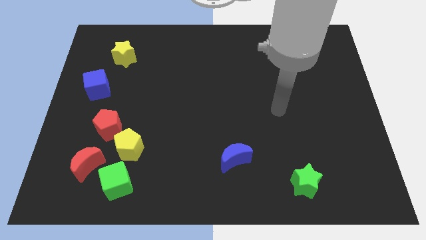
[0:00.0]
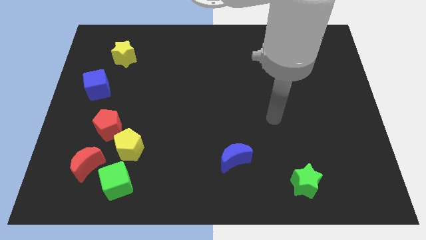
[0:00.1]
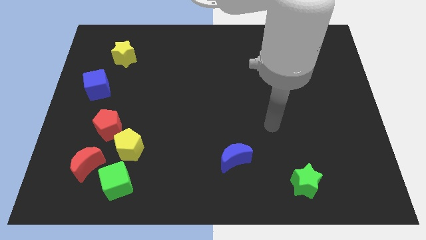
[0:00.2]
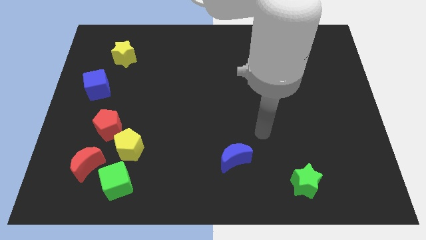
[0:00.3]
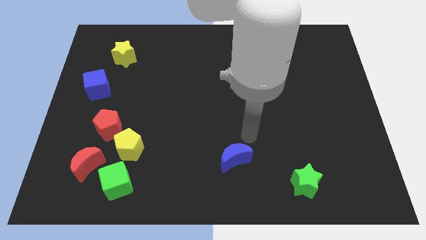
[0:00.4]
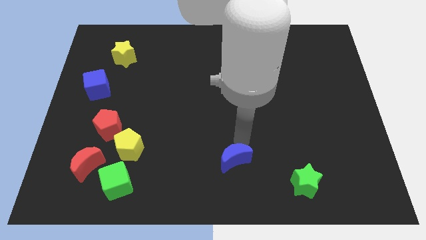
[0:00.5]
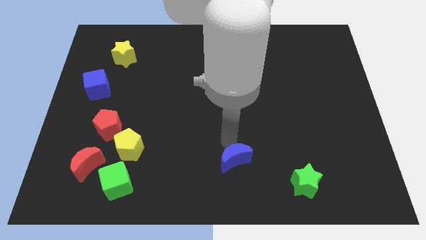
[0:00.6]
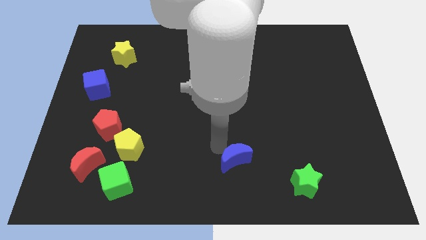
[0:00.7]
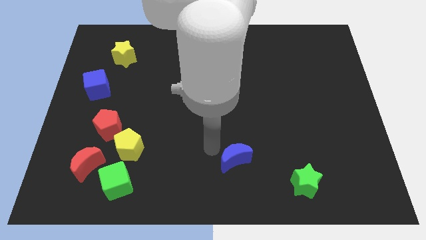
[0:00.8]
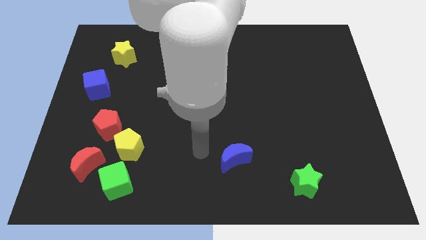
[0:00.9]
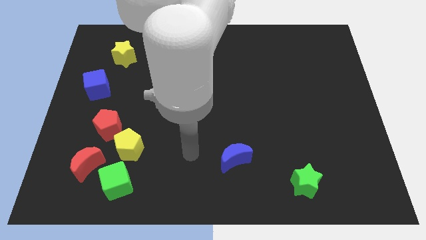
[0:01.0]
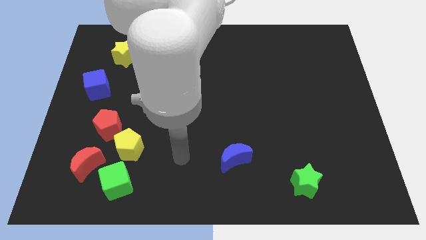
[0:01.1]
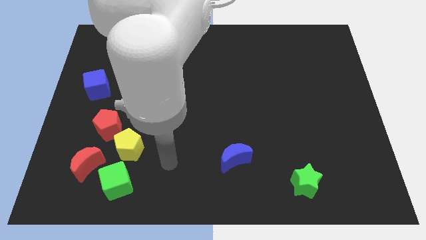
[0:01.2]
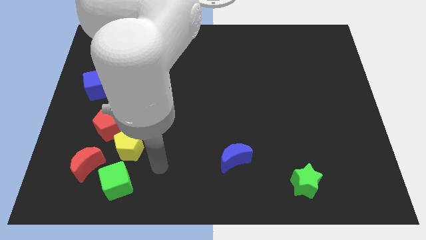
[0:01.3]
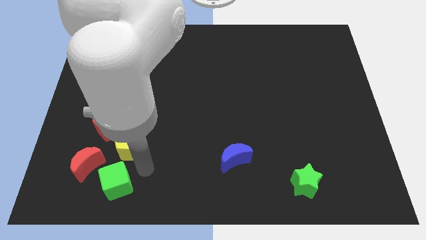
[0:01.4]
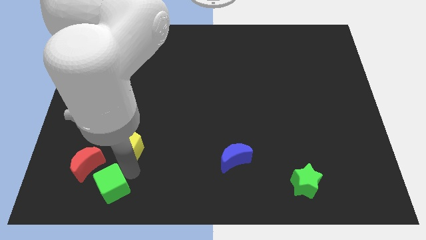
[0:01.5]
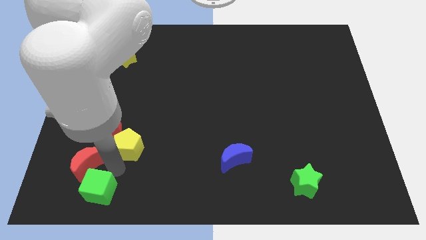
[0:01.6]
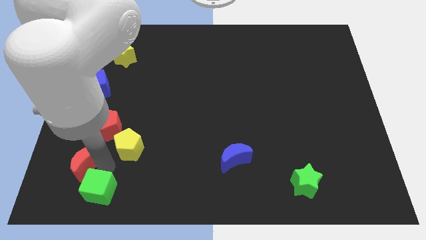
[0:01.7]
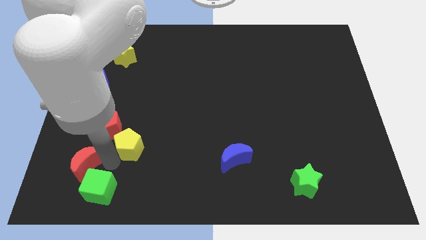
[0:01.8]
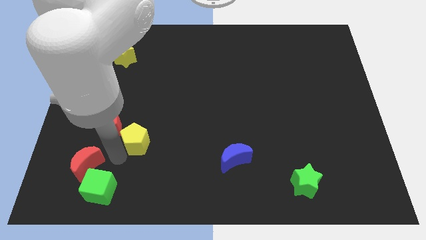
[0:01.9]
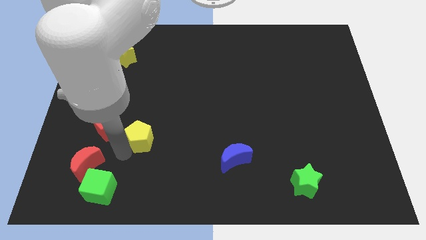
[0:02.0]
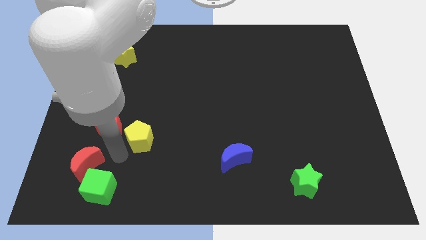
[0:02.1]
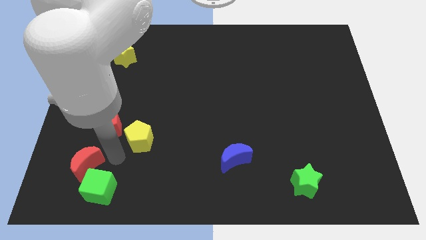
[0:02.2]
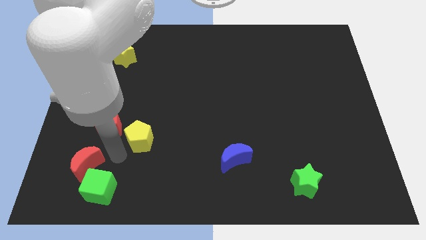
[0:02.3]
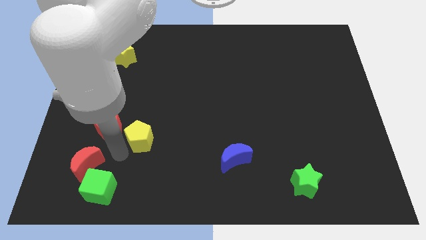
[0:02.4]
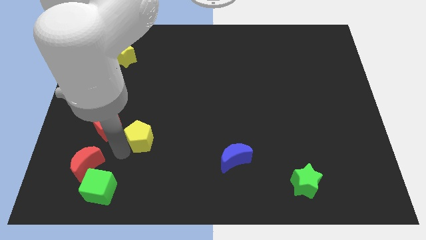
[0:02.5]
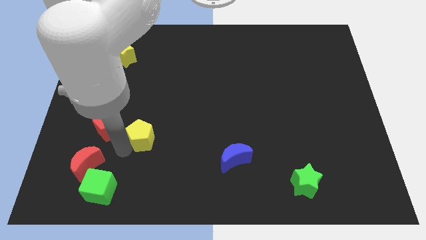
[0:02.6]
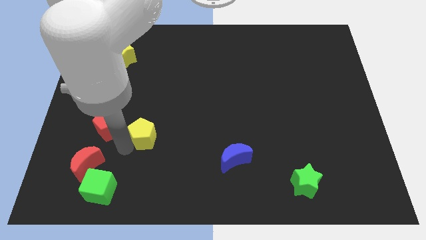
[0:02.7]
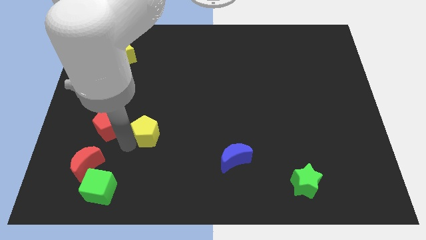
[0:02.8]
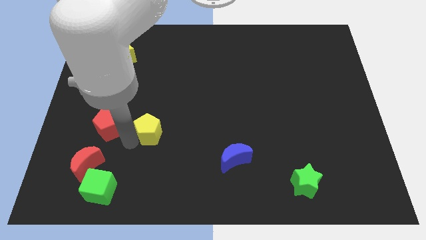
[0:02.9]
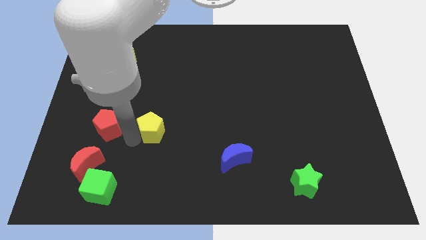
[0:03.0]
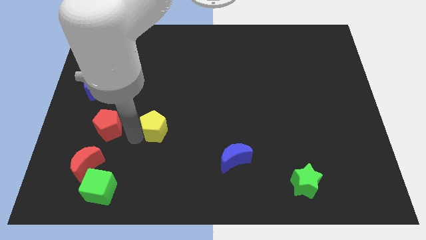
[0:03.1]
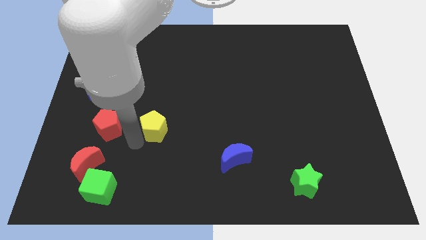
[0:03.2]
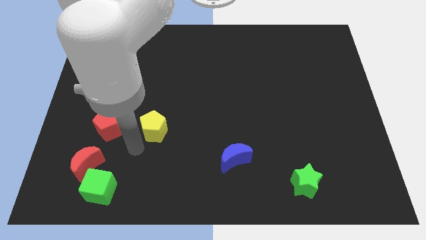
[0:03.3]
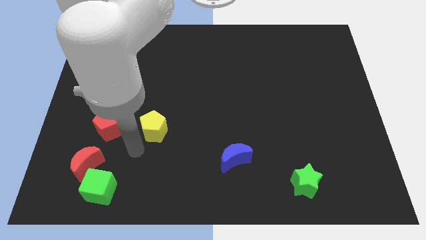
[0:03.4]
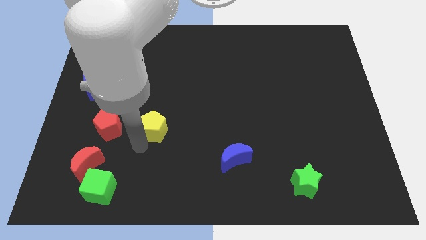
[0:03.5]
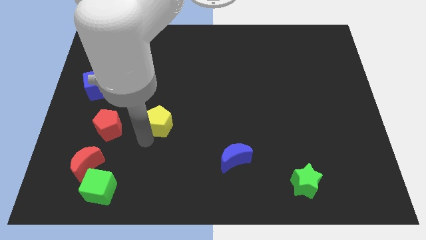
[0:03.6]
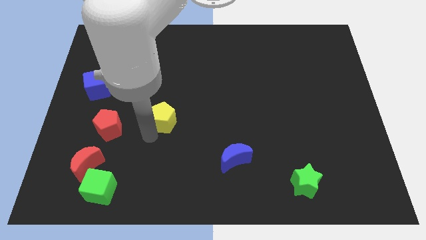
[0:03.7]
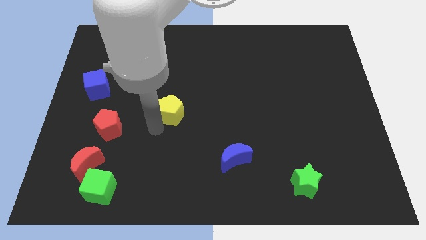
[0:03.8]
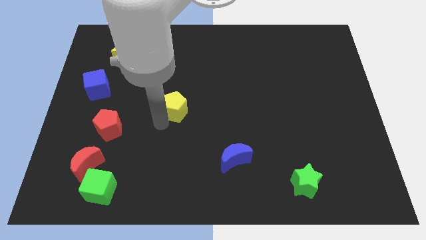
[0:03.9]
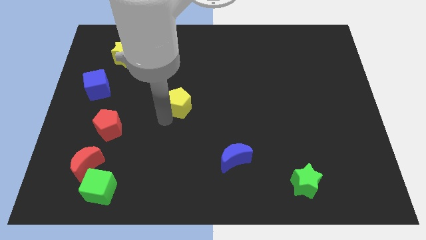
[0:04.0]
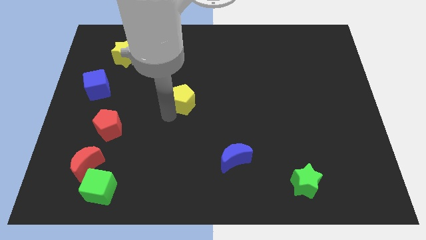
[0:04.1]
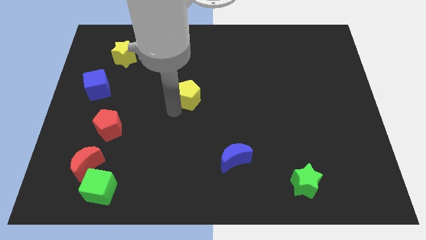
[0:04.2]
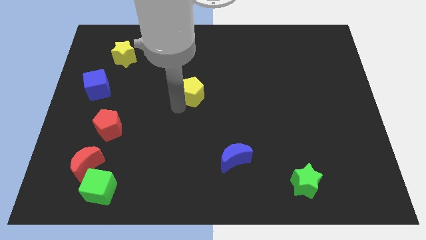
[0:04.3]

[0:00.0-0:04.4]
push the yellow pentagon up and then to the right

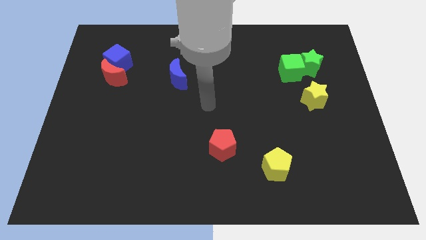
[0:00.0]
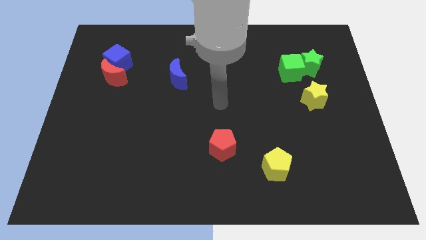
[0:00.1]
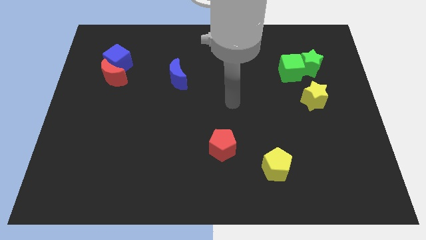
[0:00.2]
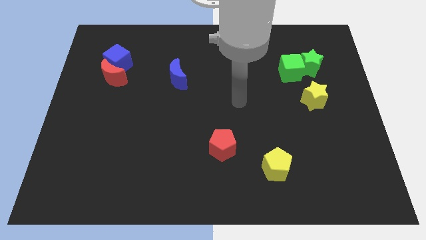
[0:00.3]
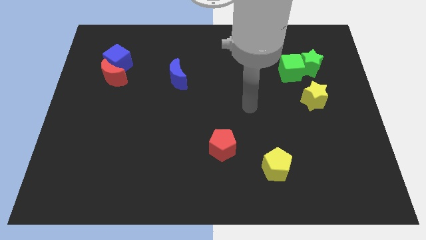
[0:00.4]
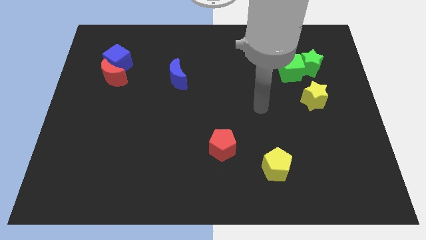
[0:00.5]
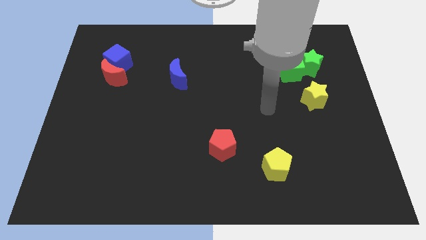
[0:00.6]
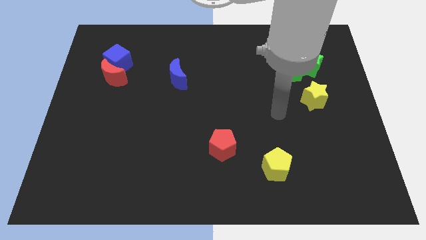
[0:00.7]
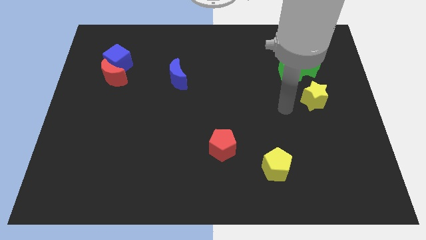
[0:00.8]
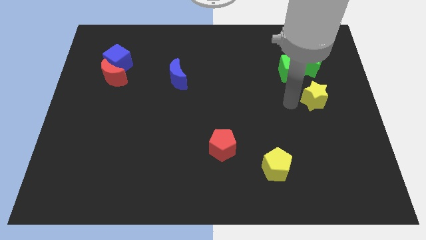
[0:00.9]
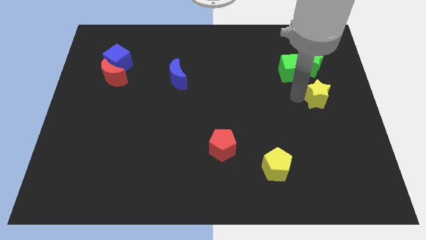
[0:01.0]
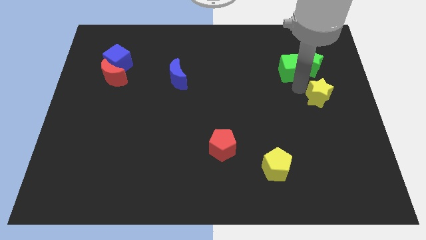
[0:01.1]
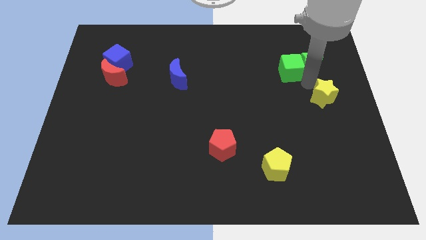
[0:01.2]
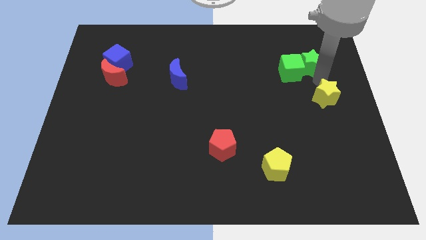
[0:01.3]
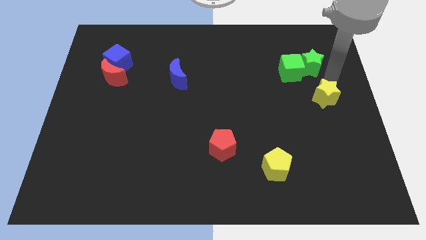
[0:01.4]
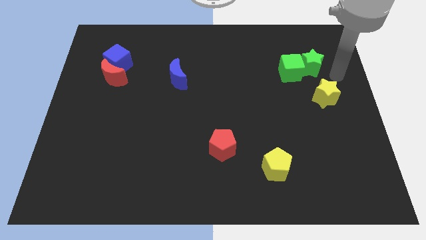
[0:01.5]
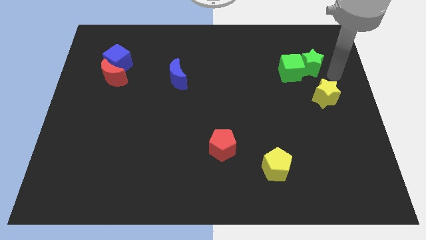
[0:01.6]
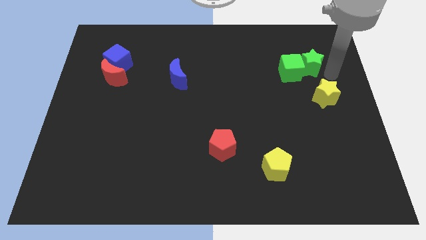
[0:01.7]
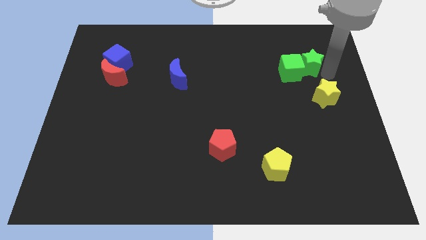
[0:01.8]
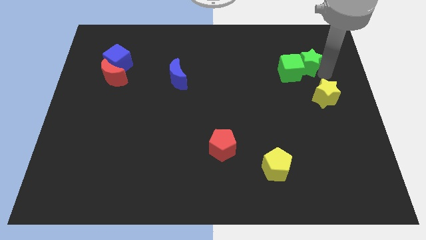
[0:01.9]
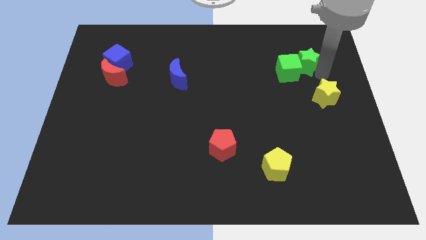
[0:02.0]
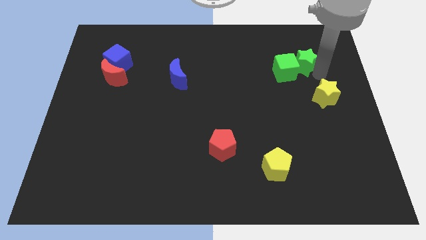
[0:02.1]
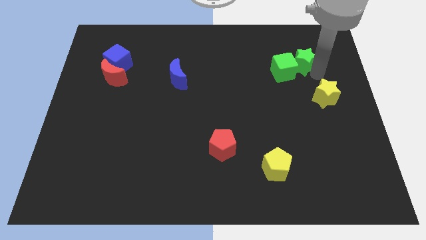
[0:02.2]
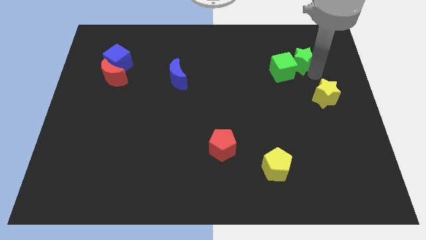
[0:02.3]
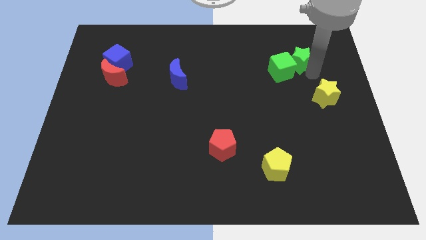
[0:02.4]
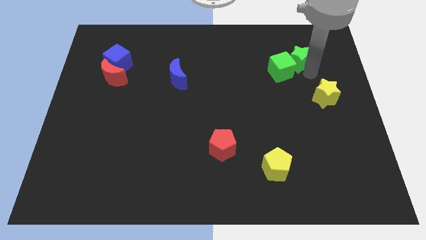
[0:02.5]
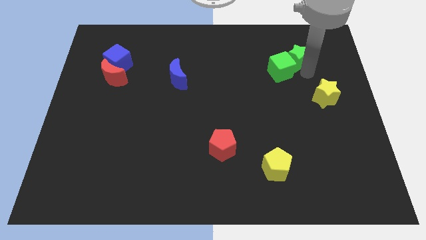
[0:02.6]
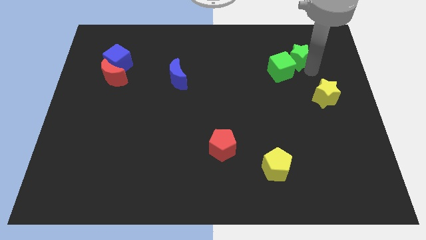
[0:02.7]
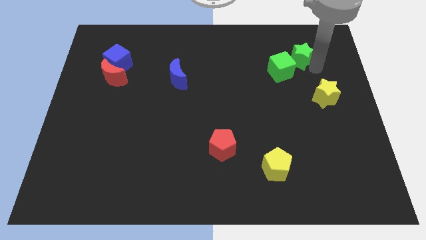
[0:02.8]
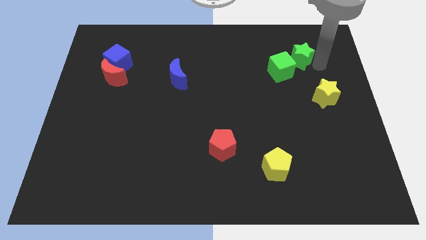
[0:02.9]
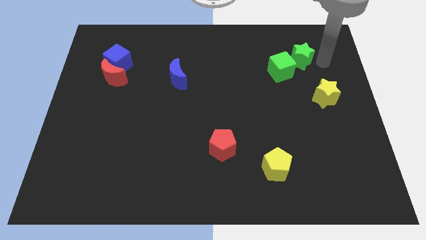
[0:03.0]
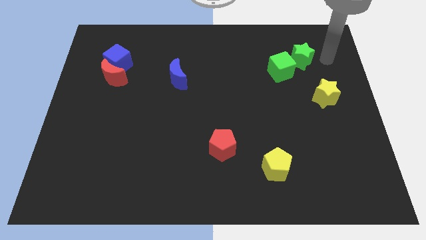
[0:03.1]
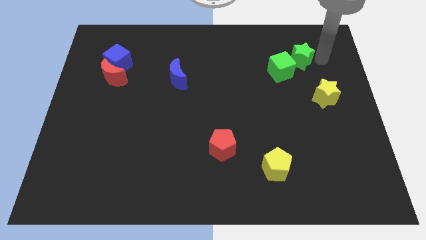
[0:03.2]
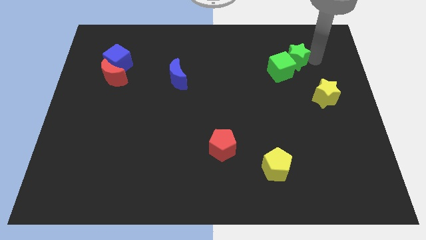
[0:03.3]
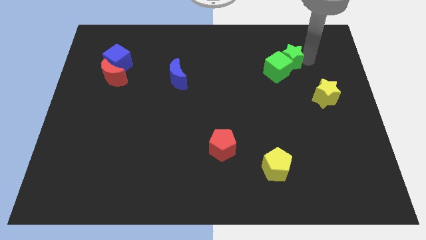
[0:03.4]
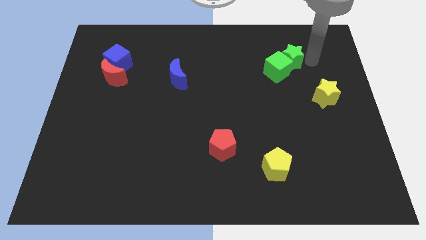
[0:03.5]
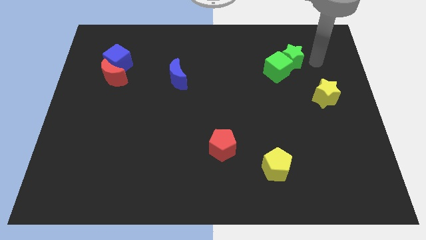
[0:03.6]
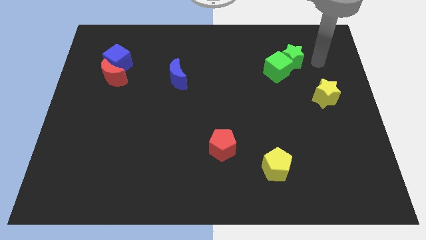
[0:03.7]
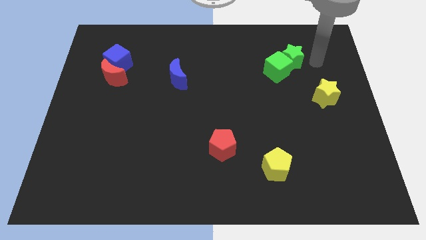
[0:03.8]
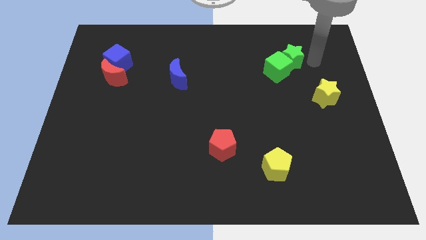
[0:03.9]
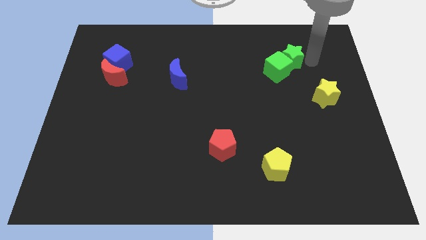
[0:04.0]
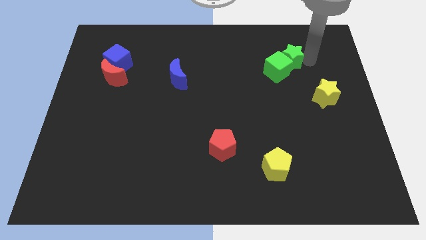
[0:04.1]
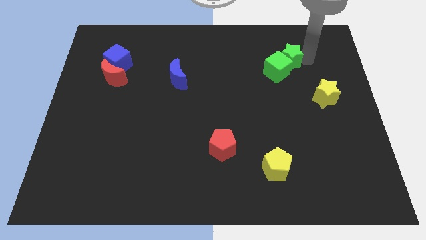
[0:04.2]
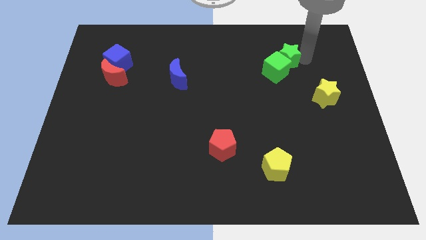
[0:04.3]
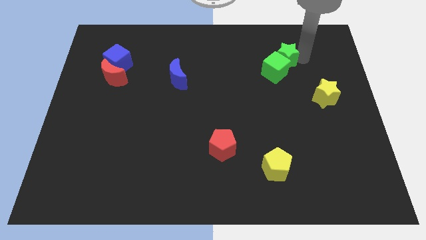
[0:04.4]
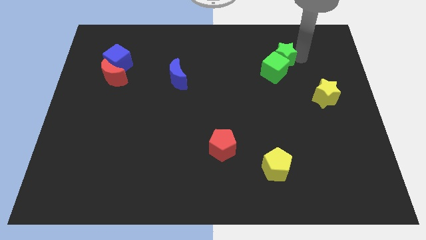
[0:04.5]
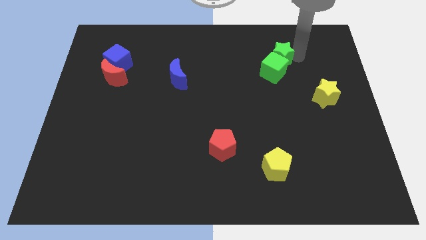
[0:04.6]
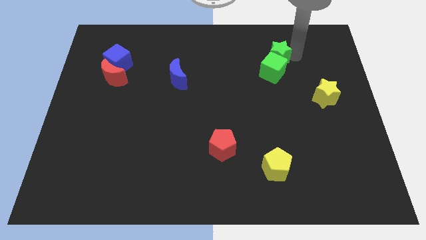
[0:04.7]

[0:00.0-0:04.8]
move the green star left a bit
